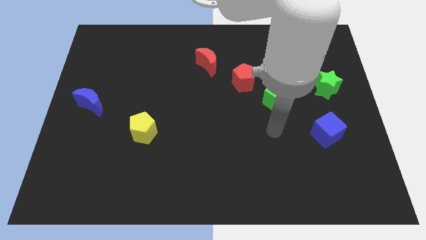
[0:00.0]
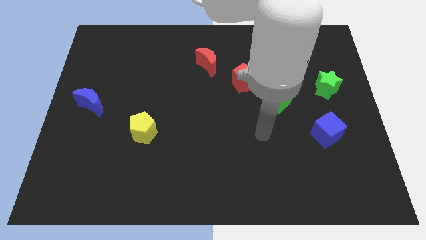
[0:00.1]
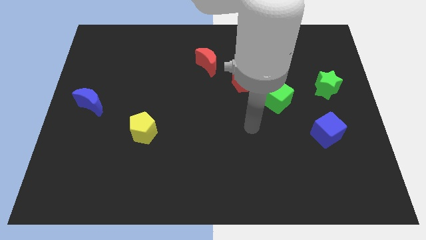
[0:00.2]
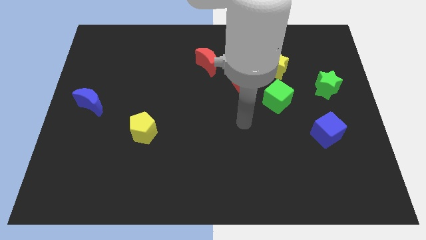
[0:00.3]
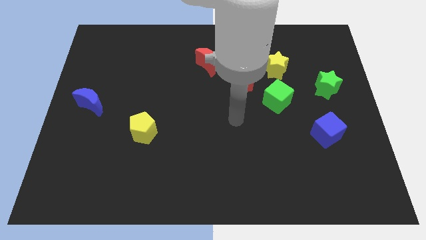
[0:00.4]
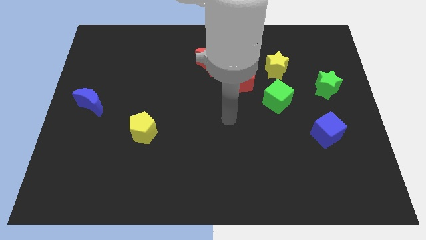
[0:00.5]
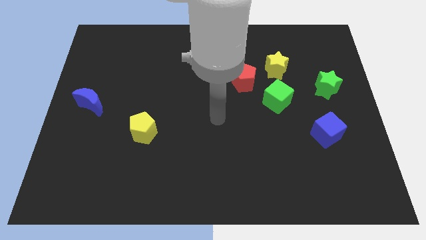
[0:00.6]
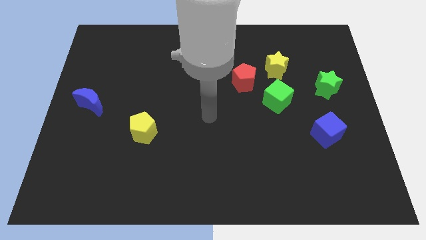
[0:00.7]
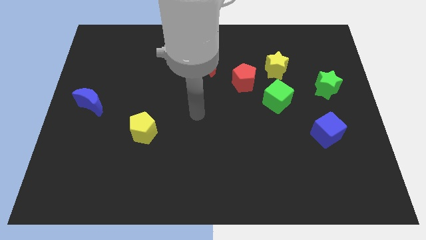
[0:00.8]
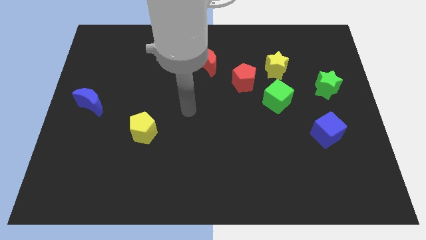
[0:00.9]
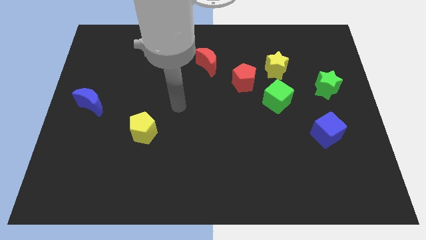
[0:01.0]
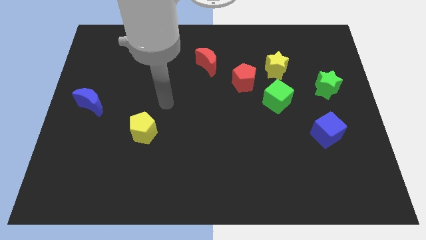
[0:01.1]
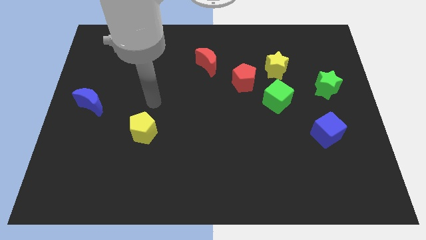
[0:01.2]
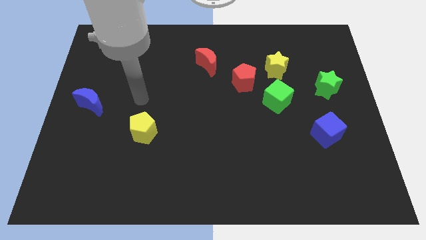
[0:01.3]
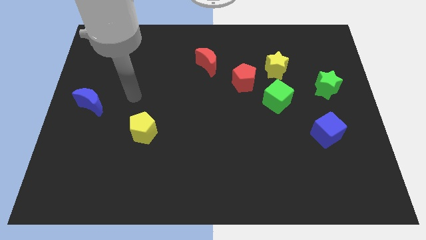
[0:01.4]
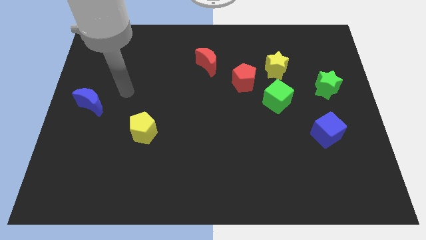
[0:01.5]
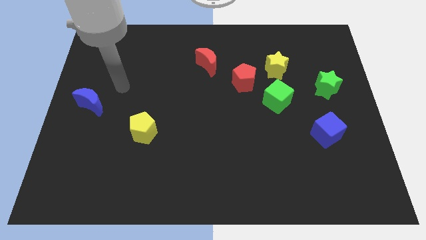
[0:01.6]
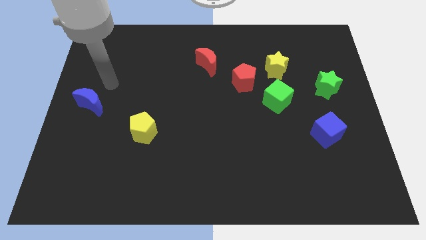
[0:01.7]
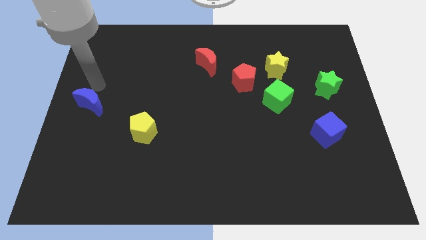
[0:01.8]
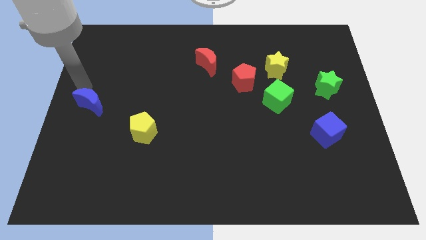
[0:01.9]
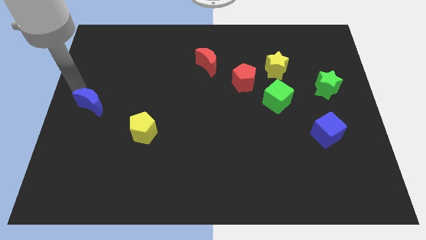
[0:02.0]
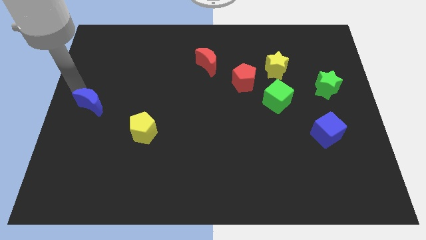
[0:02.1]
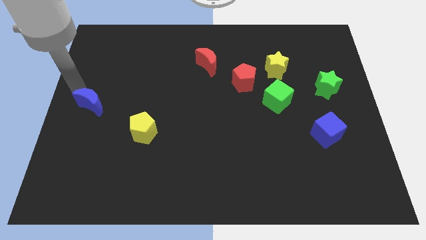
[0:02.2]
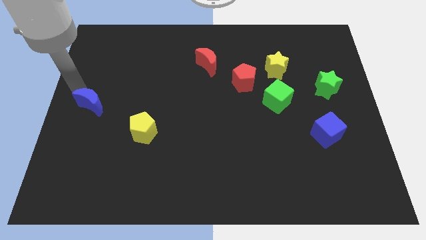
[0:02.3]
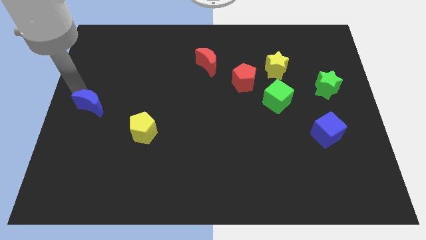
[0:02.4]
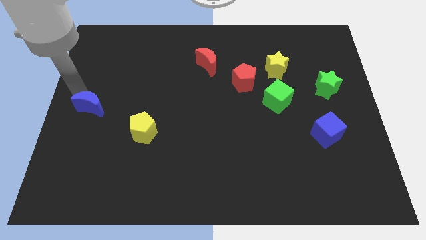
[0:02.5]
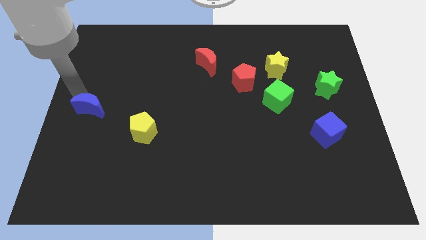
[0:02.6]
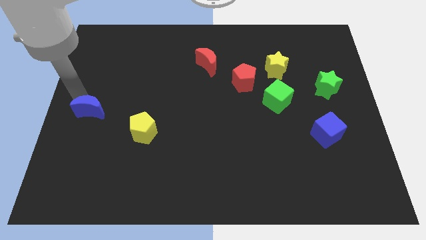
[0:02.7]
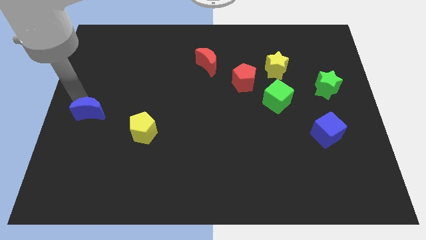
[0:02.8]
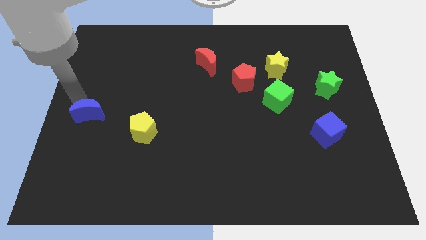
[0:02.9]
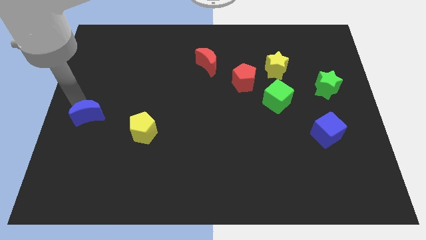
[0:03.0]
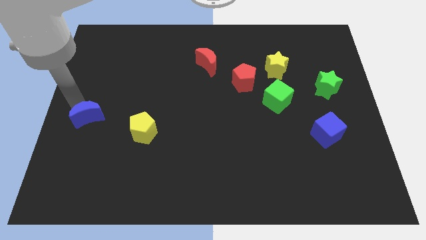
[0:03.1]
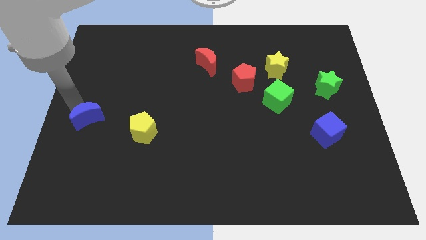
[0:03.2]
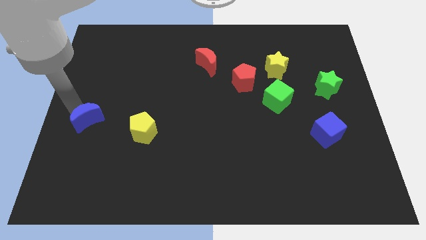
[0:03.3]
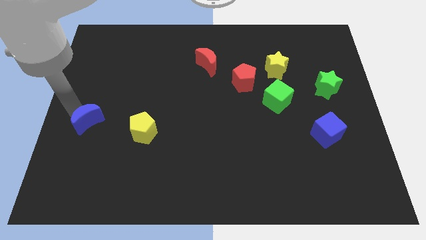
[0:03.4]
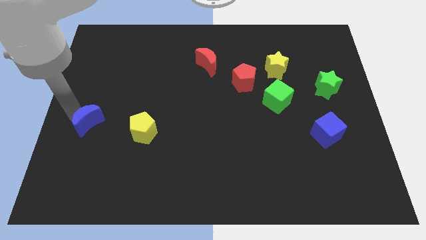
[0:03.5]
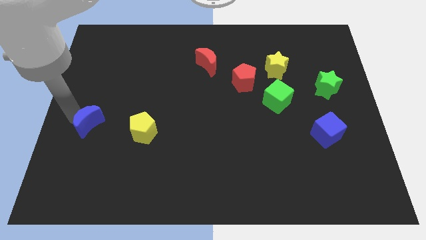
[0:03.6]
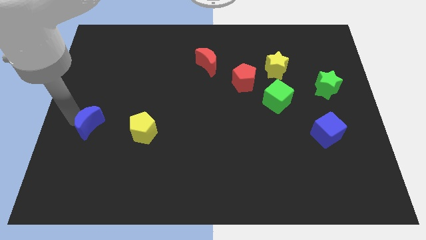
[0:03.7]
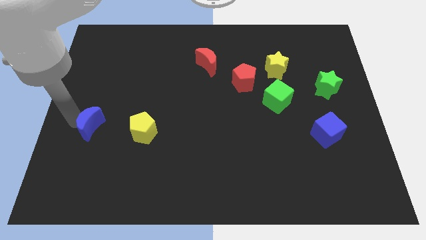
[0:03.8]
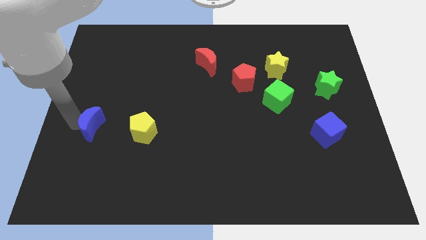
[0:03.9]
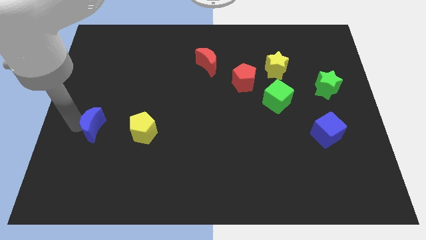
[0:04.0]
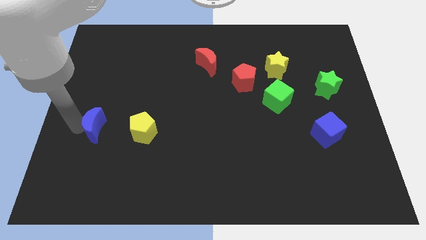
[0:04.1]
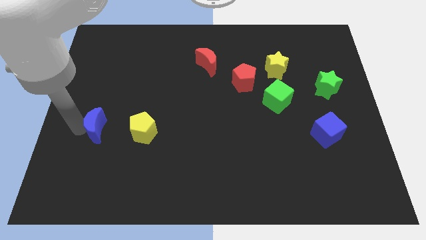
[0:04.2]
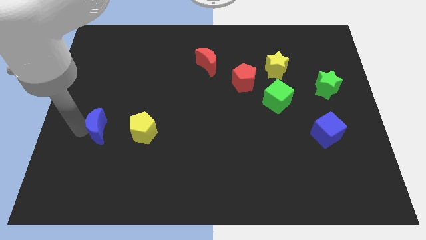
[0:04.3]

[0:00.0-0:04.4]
slide the blue moon slightly downwards and right

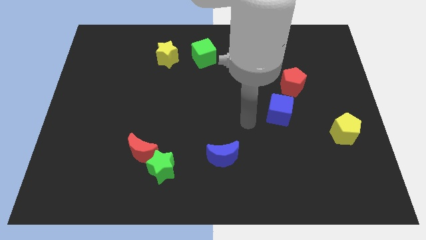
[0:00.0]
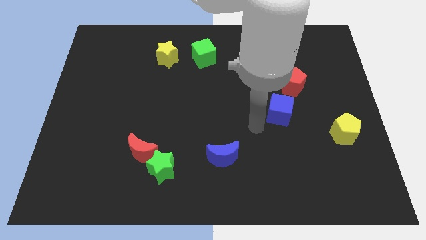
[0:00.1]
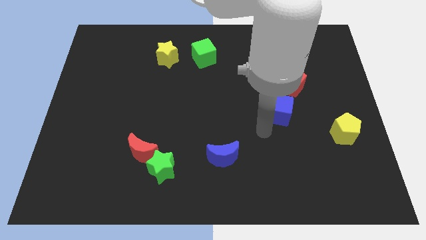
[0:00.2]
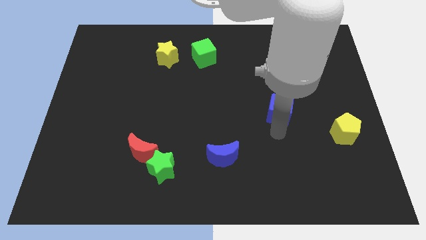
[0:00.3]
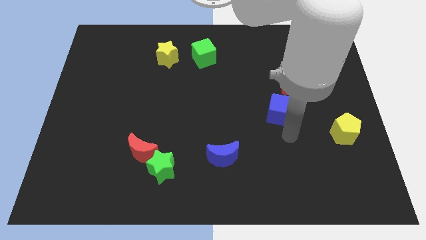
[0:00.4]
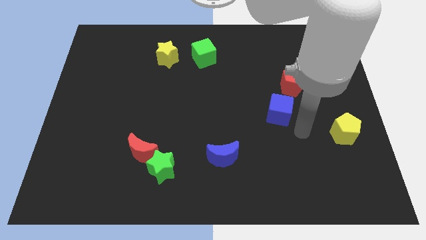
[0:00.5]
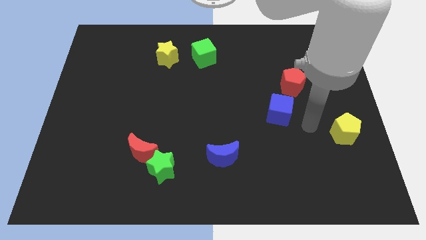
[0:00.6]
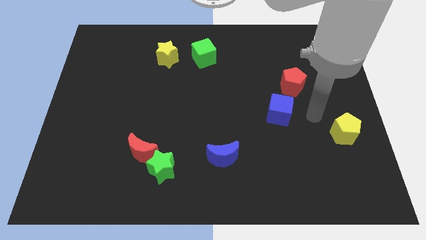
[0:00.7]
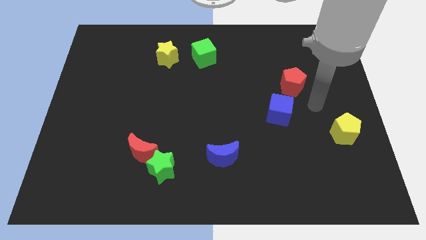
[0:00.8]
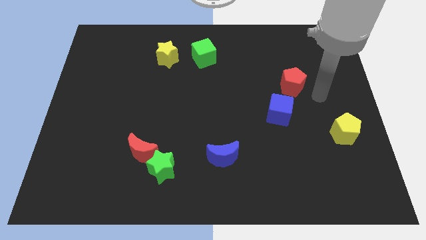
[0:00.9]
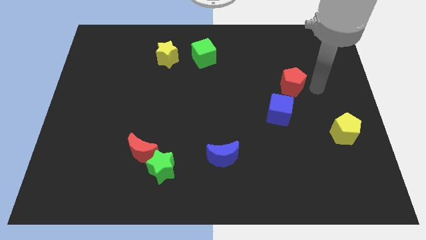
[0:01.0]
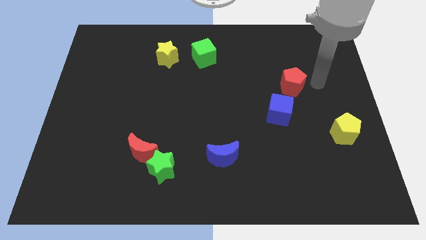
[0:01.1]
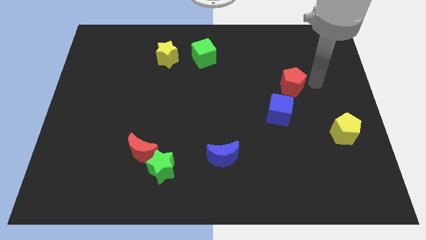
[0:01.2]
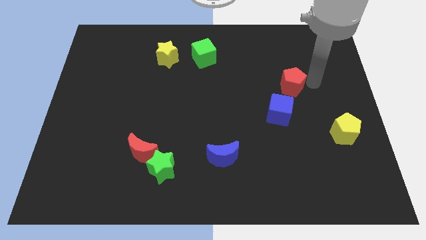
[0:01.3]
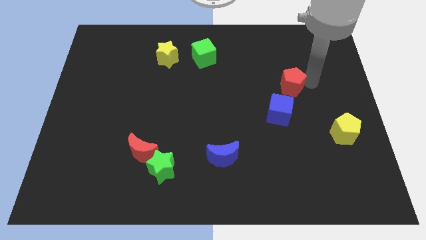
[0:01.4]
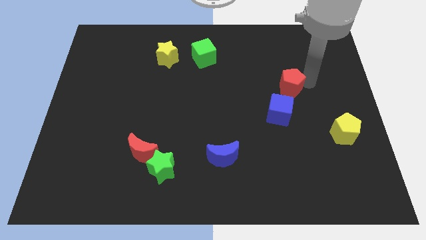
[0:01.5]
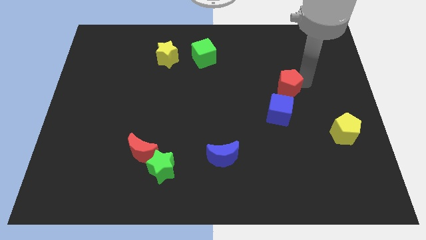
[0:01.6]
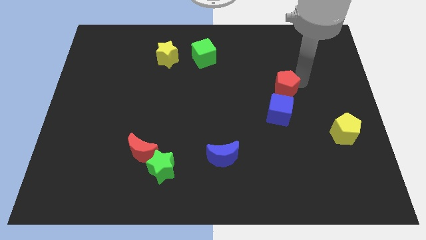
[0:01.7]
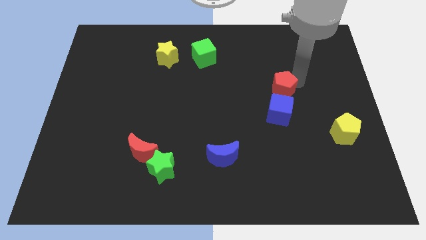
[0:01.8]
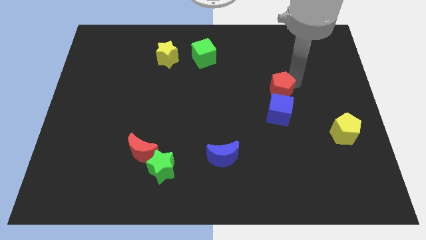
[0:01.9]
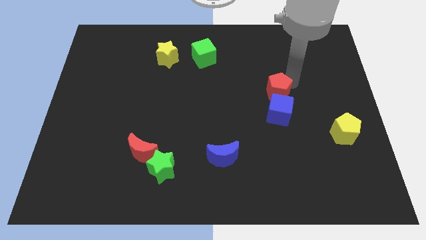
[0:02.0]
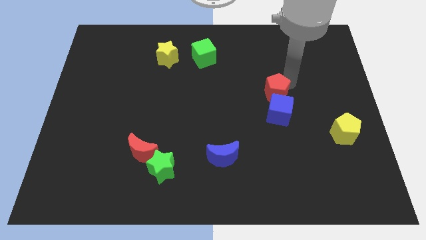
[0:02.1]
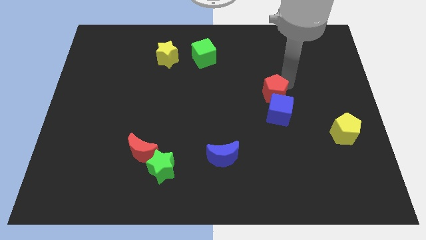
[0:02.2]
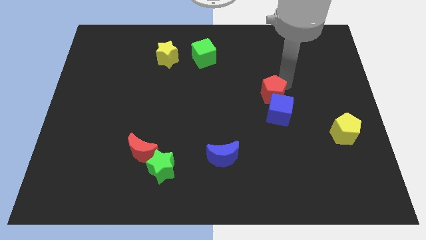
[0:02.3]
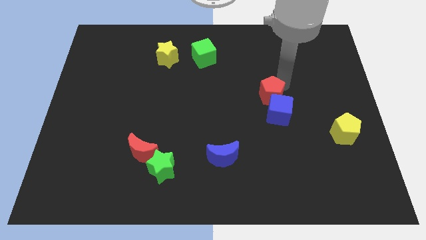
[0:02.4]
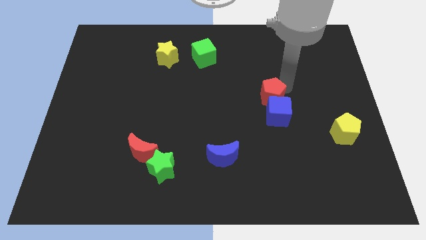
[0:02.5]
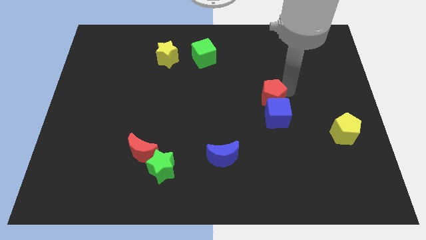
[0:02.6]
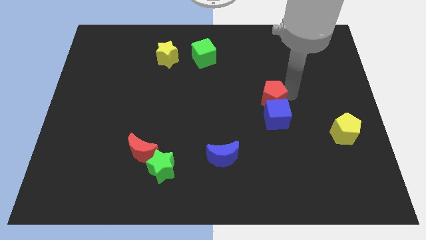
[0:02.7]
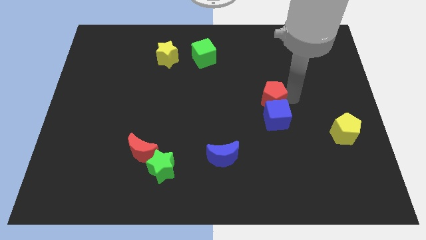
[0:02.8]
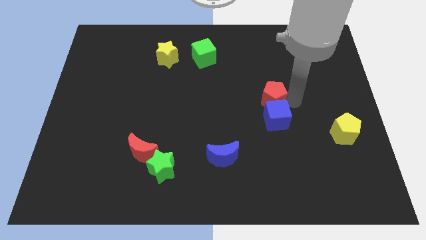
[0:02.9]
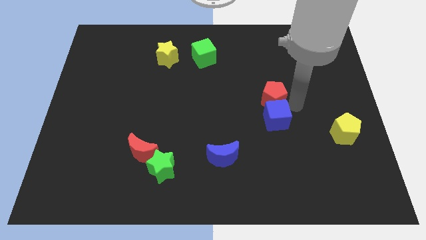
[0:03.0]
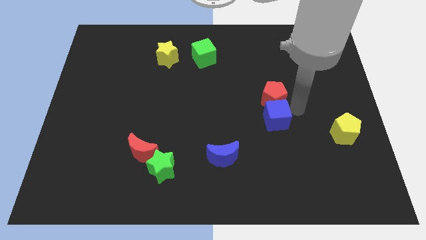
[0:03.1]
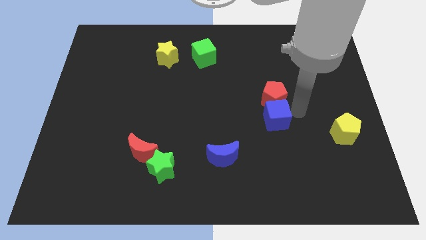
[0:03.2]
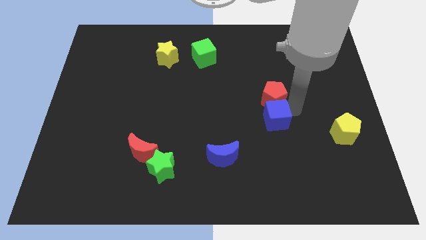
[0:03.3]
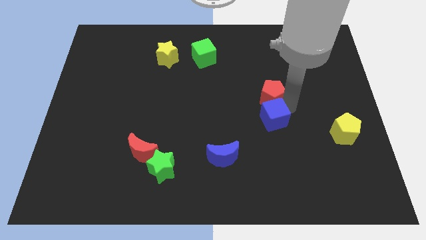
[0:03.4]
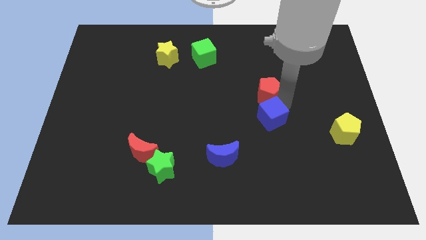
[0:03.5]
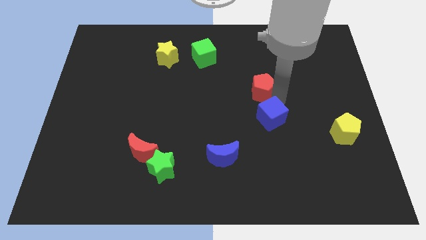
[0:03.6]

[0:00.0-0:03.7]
push the red pentagon somewhat left
